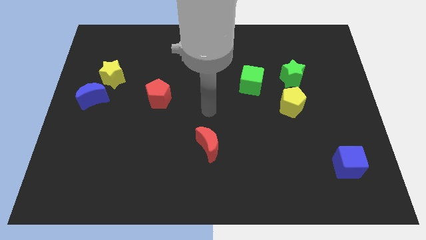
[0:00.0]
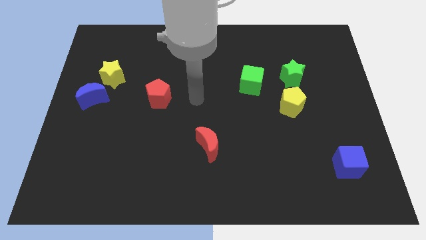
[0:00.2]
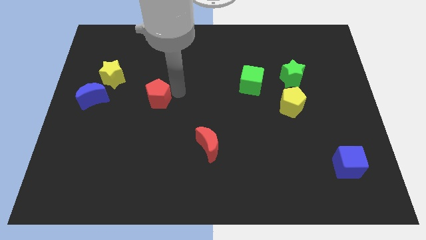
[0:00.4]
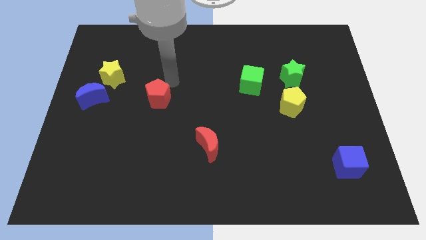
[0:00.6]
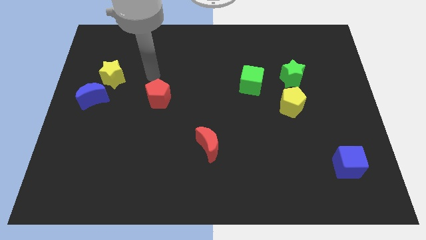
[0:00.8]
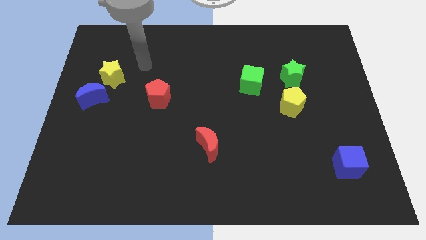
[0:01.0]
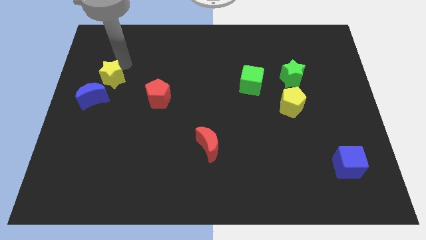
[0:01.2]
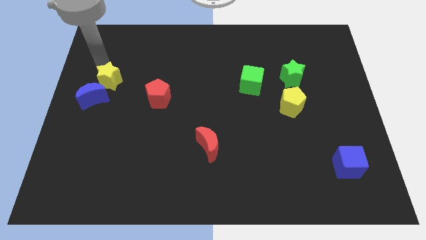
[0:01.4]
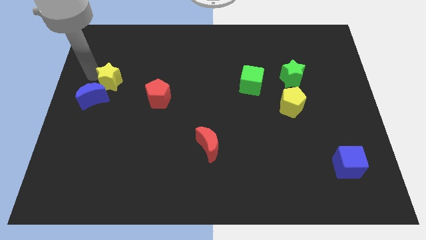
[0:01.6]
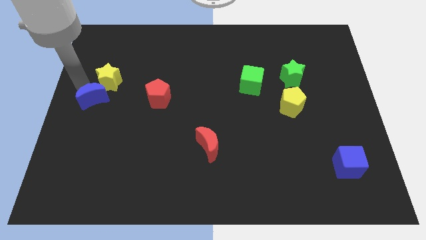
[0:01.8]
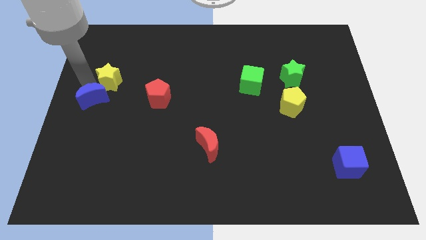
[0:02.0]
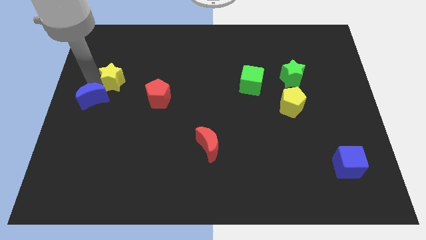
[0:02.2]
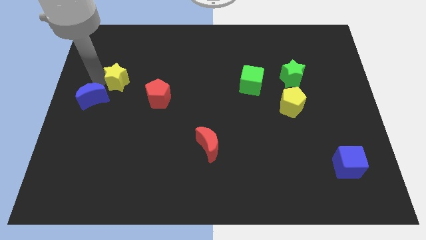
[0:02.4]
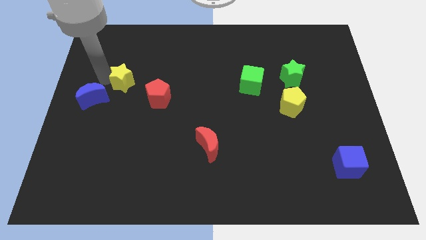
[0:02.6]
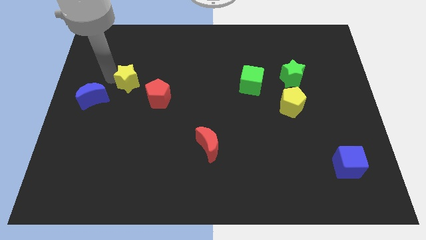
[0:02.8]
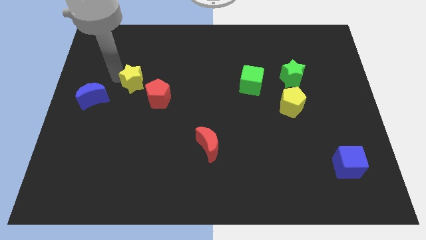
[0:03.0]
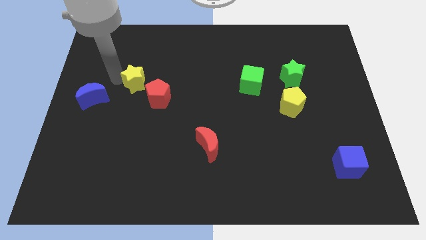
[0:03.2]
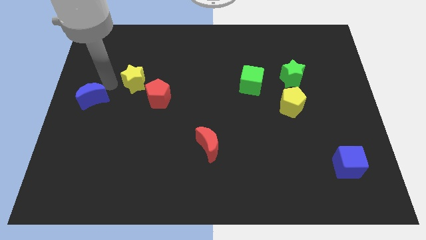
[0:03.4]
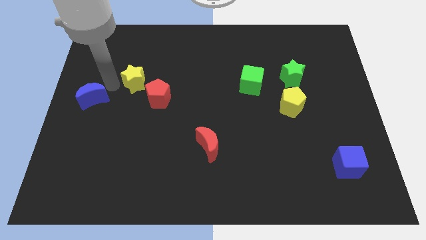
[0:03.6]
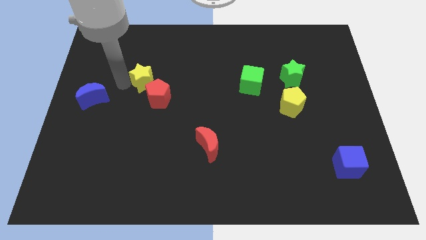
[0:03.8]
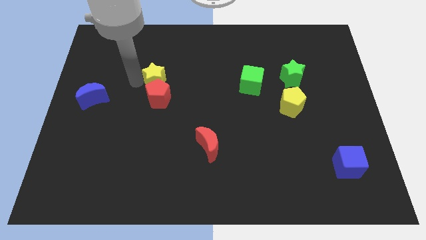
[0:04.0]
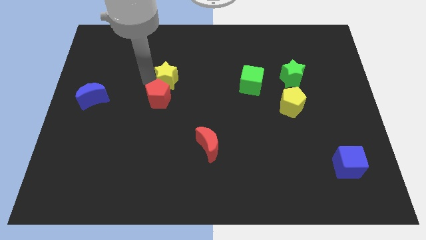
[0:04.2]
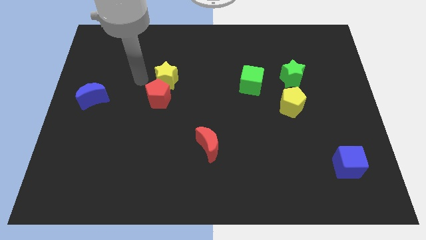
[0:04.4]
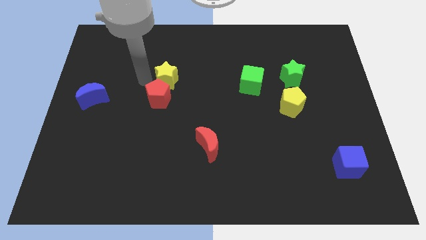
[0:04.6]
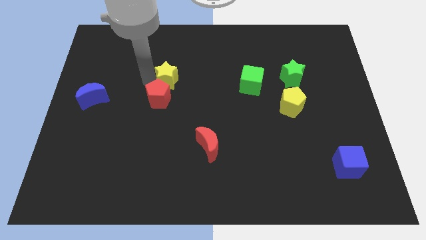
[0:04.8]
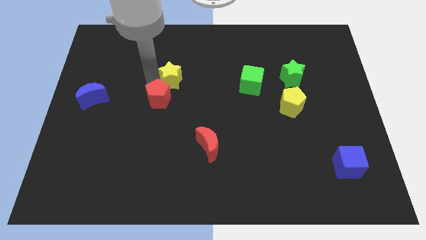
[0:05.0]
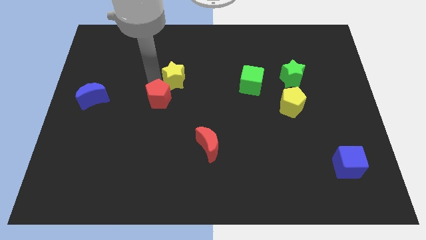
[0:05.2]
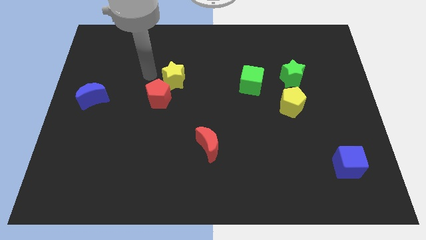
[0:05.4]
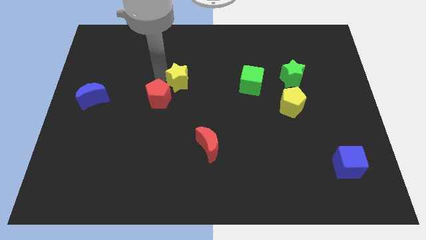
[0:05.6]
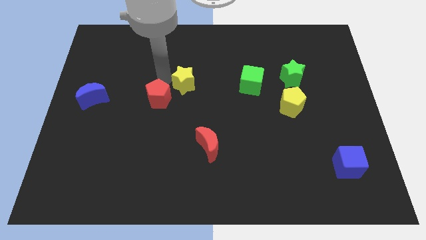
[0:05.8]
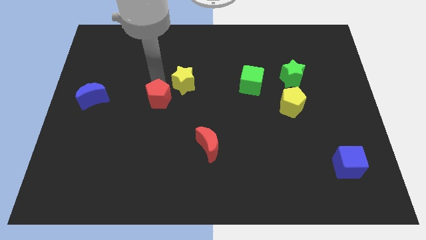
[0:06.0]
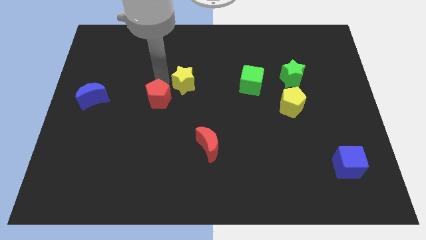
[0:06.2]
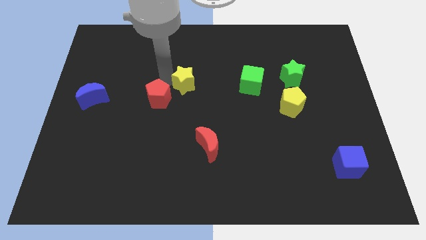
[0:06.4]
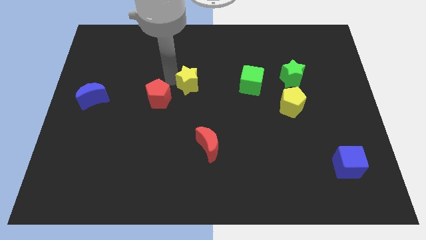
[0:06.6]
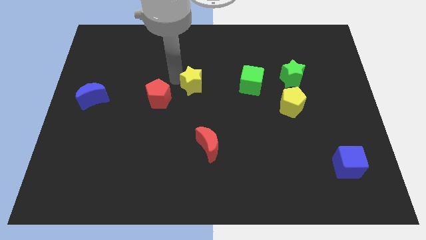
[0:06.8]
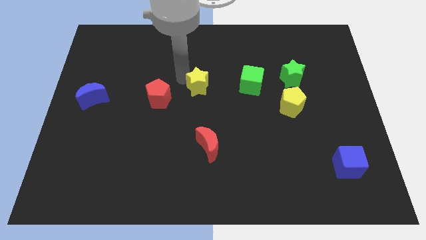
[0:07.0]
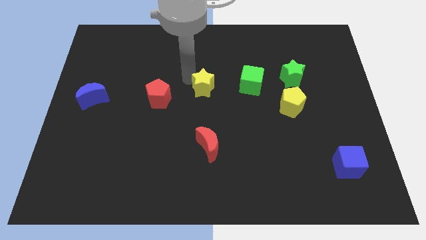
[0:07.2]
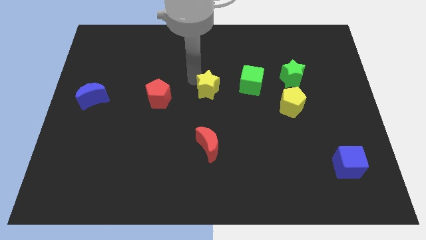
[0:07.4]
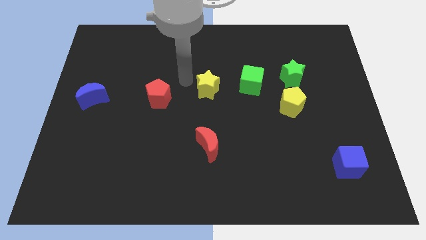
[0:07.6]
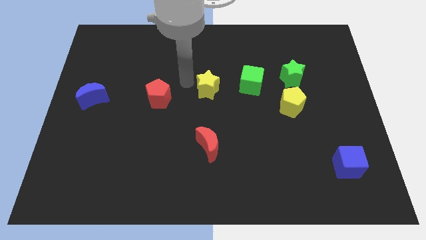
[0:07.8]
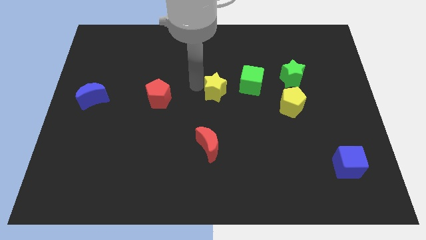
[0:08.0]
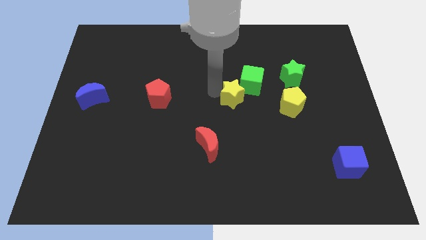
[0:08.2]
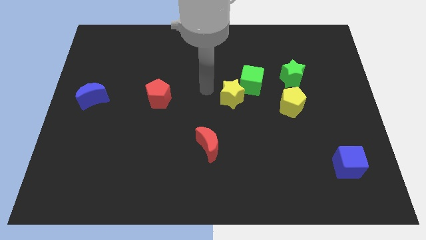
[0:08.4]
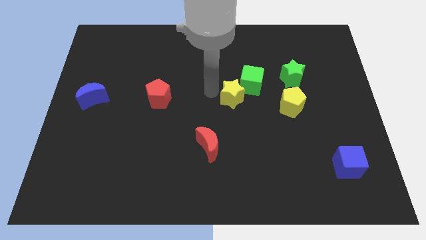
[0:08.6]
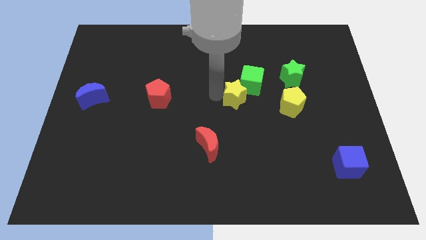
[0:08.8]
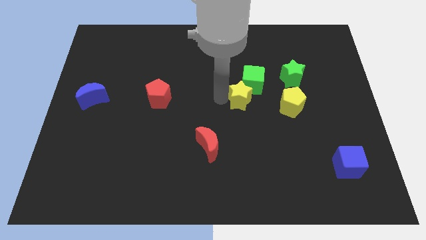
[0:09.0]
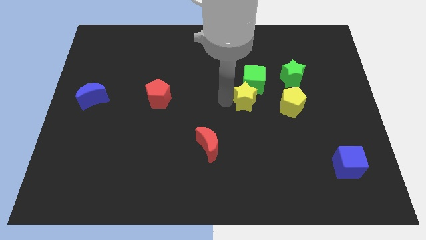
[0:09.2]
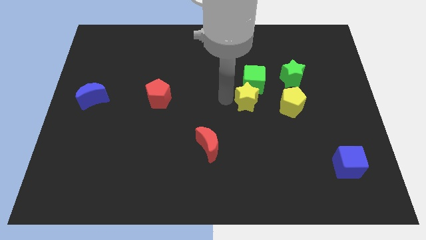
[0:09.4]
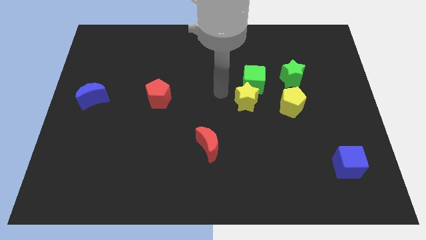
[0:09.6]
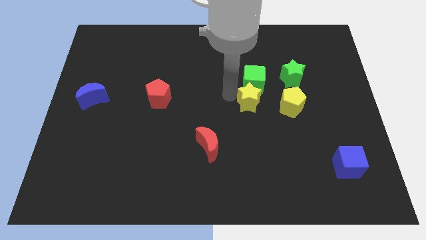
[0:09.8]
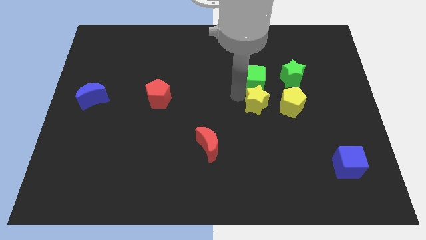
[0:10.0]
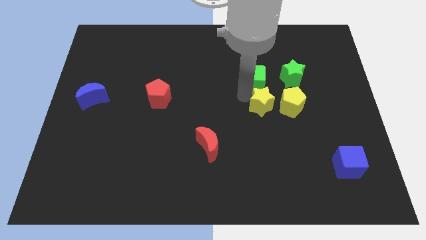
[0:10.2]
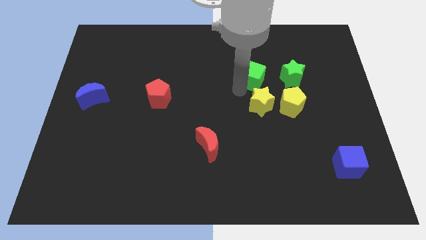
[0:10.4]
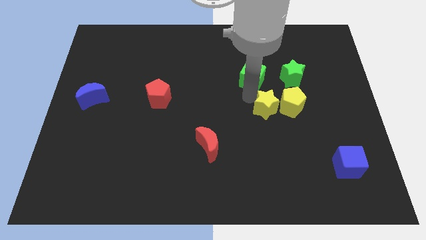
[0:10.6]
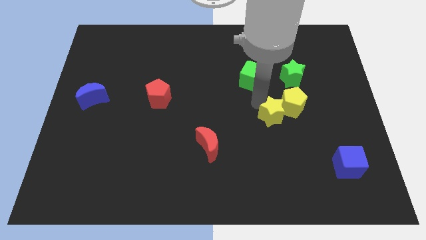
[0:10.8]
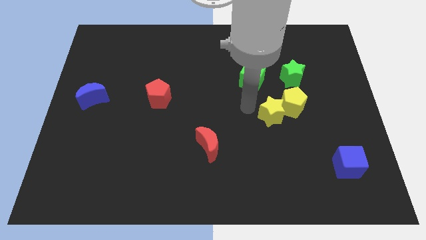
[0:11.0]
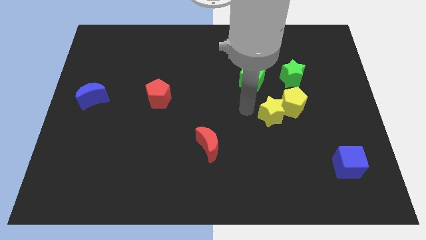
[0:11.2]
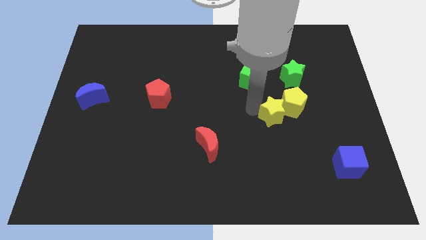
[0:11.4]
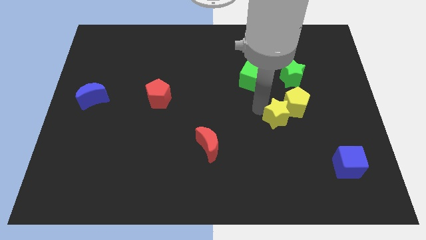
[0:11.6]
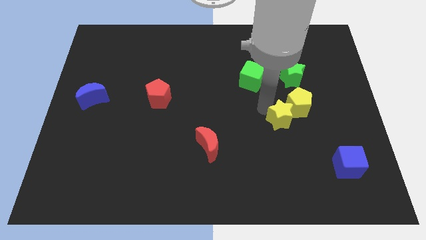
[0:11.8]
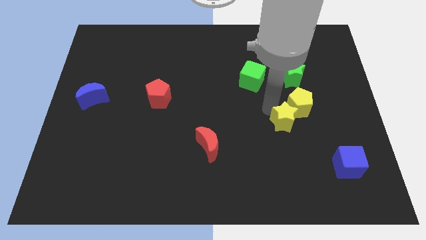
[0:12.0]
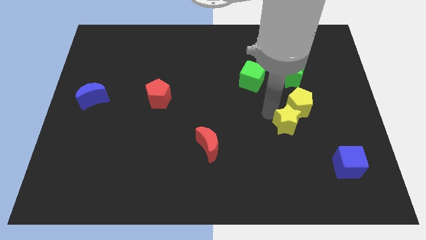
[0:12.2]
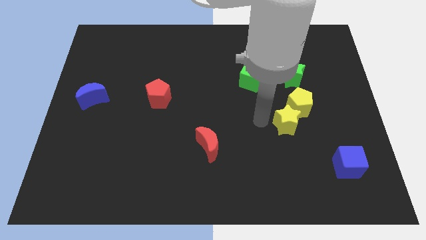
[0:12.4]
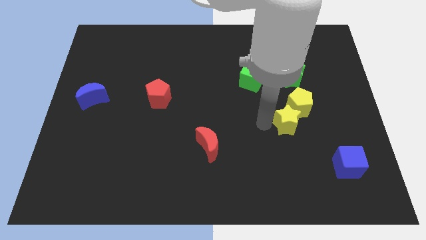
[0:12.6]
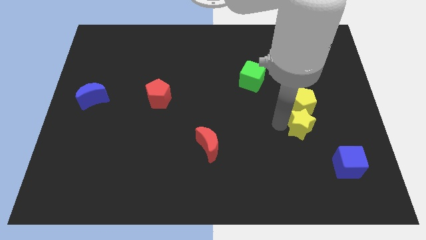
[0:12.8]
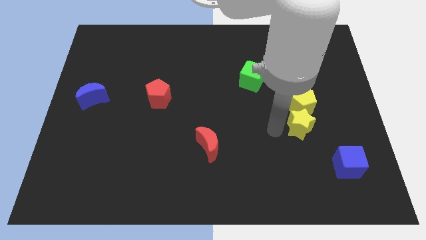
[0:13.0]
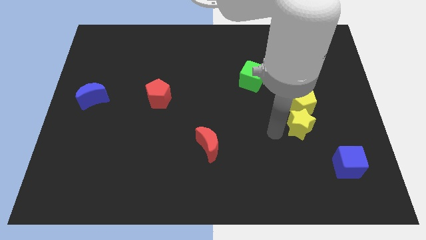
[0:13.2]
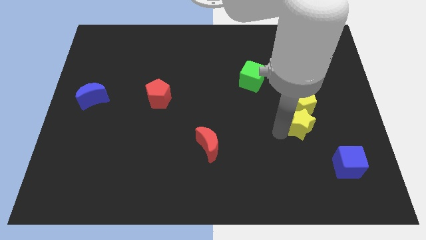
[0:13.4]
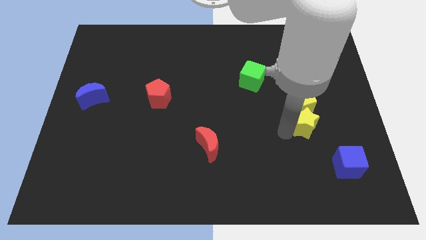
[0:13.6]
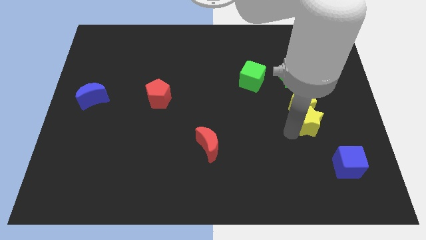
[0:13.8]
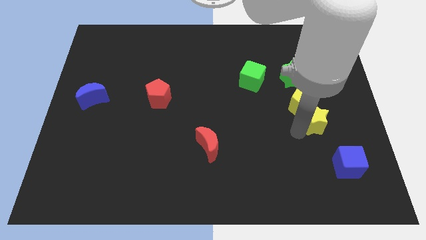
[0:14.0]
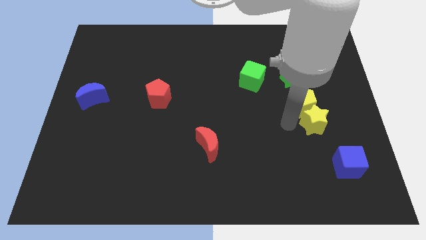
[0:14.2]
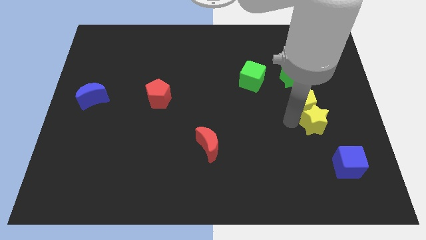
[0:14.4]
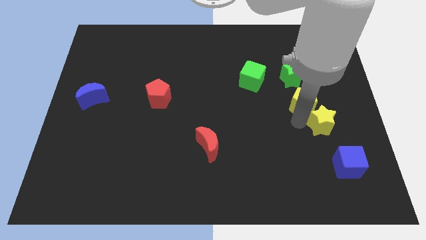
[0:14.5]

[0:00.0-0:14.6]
slide the yellow star above the blue cube

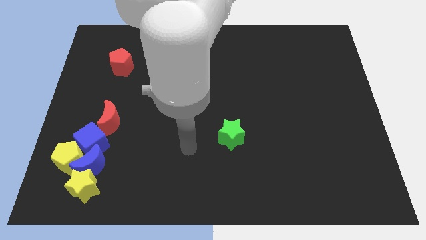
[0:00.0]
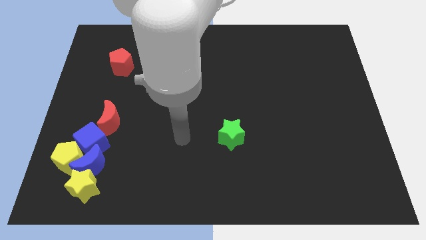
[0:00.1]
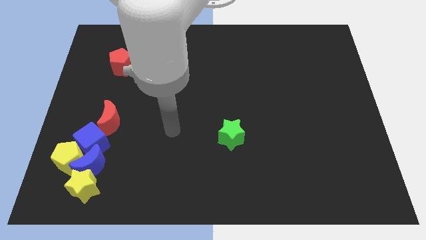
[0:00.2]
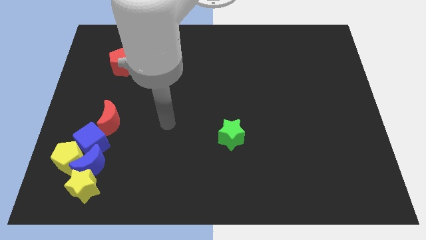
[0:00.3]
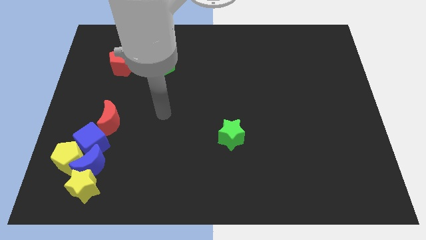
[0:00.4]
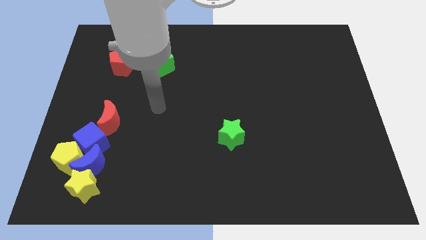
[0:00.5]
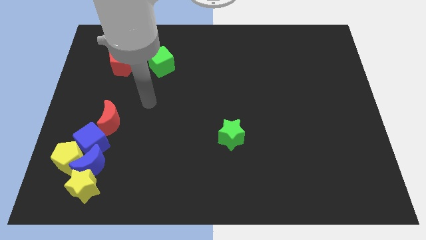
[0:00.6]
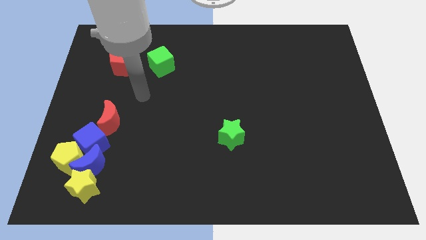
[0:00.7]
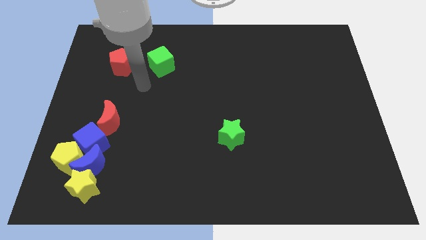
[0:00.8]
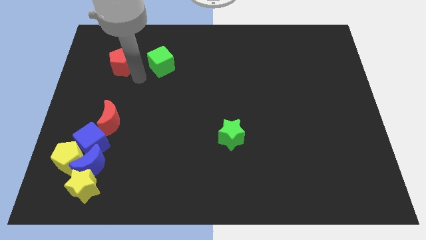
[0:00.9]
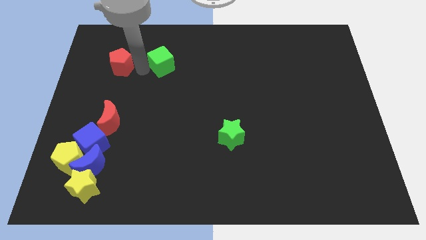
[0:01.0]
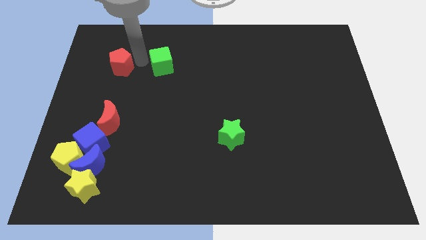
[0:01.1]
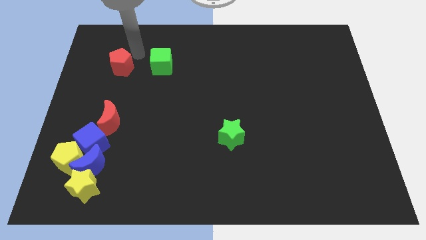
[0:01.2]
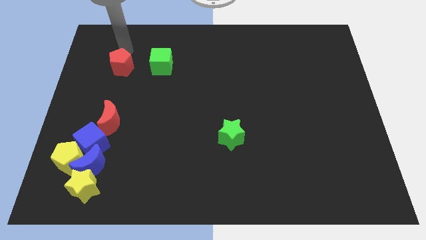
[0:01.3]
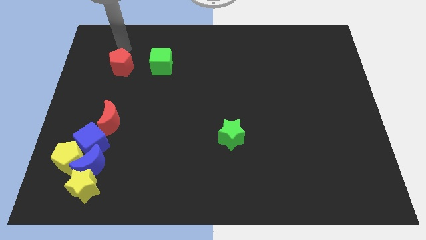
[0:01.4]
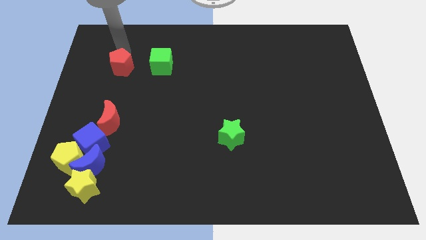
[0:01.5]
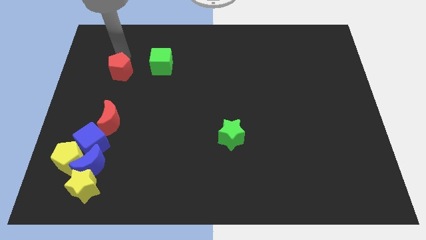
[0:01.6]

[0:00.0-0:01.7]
put the red pentagon to the top of the red moon
